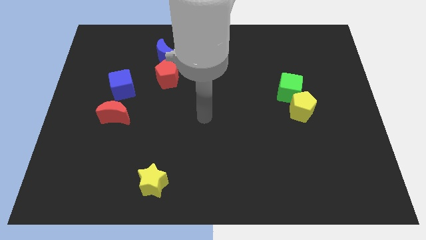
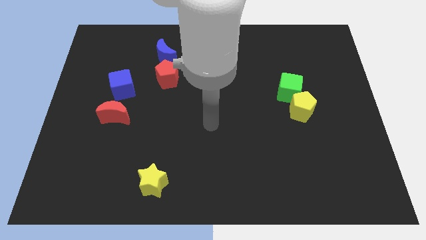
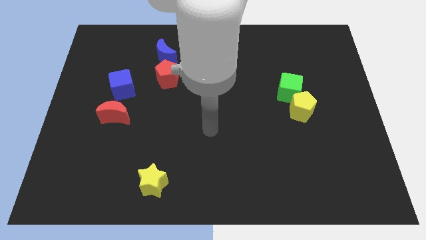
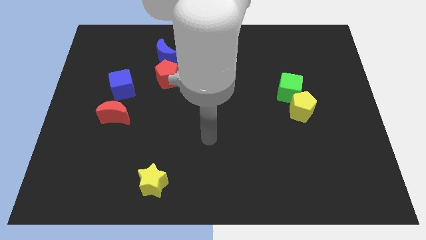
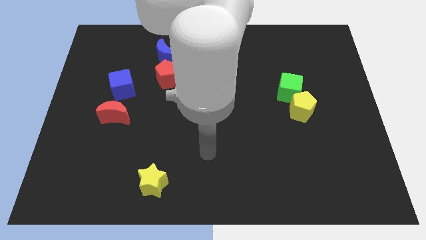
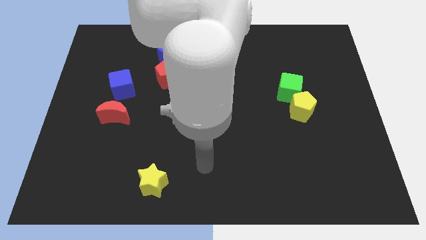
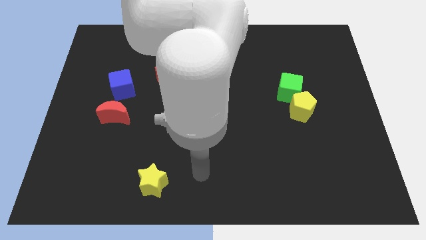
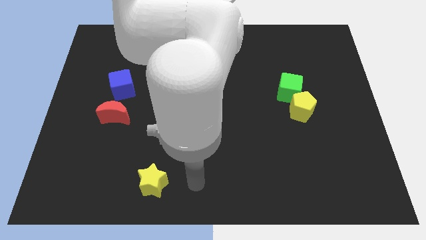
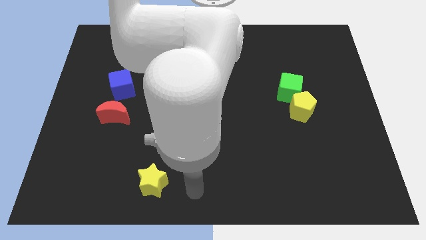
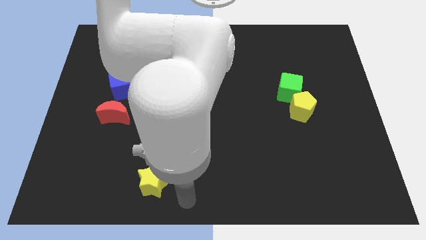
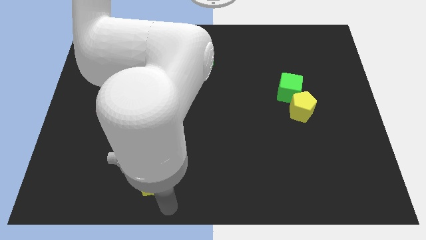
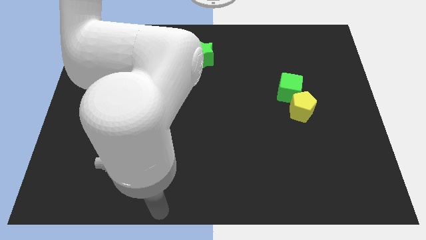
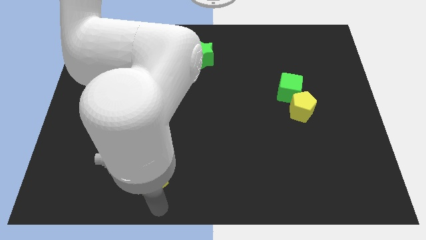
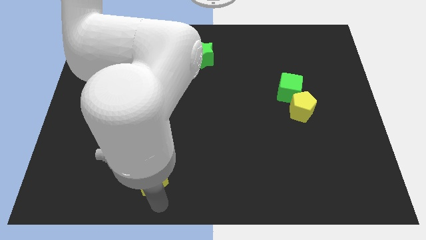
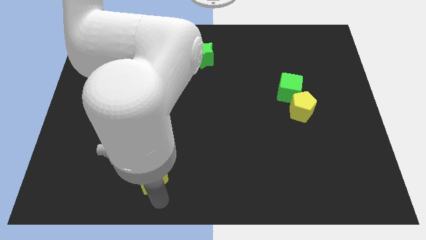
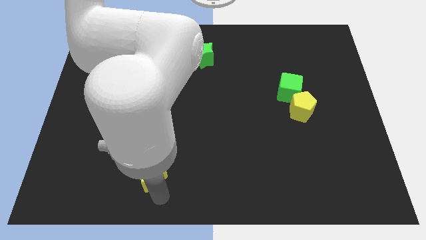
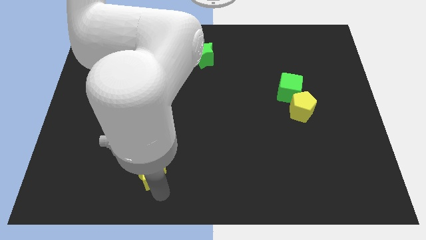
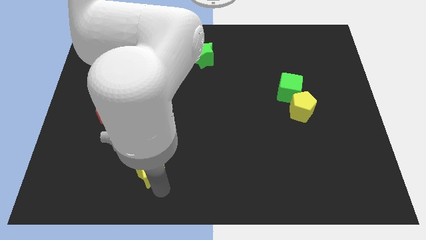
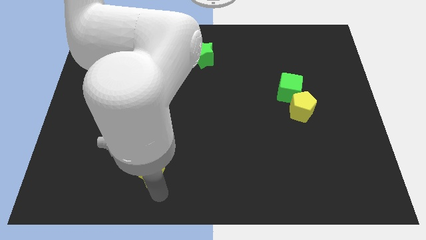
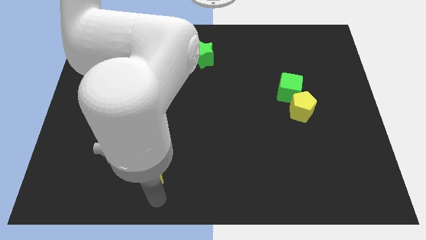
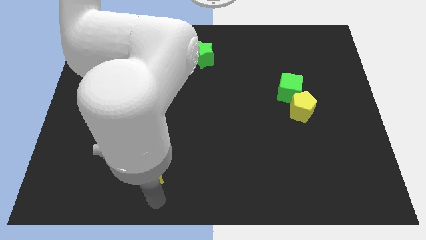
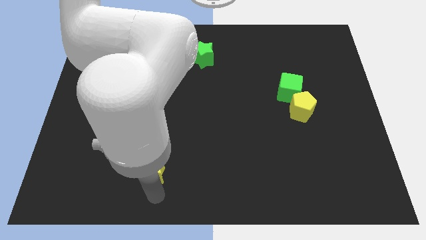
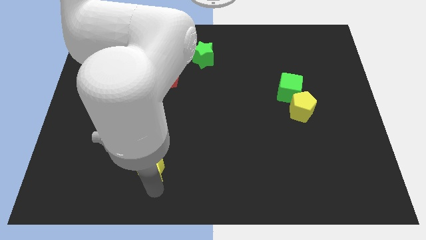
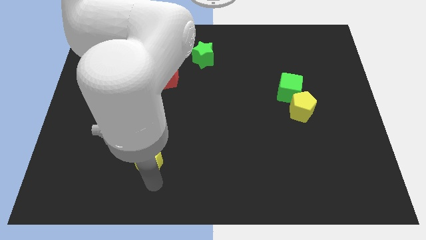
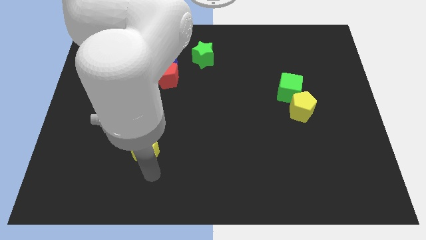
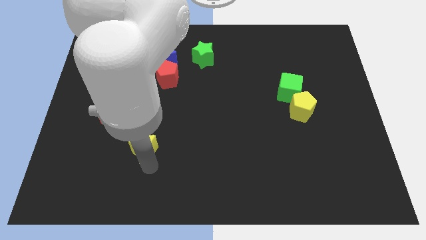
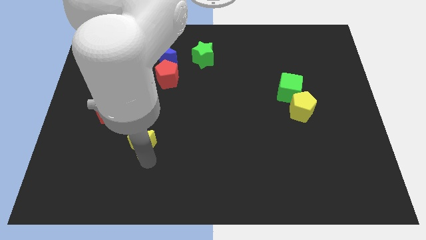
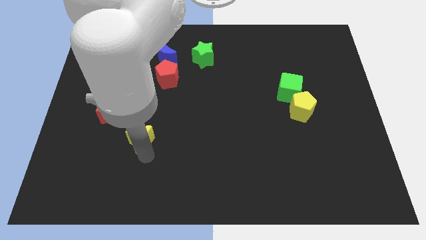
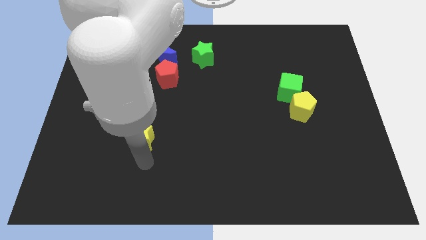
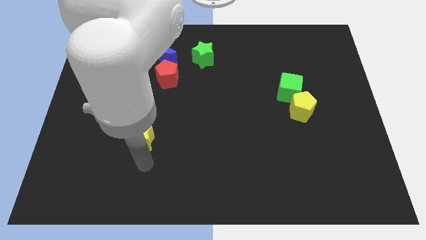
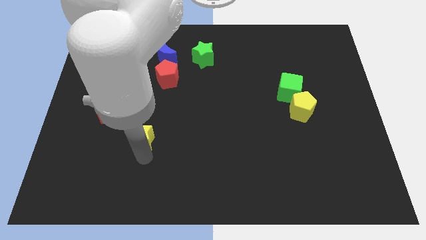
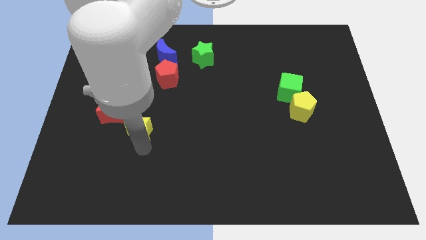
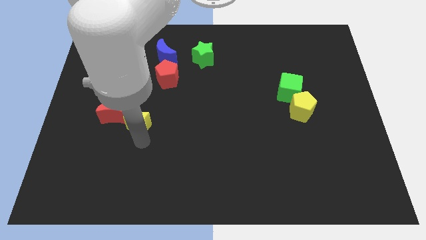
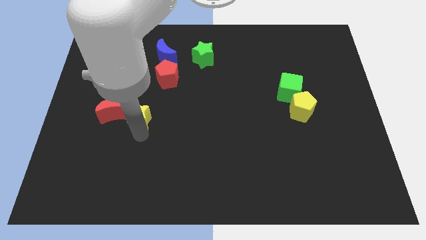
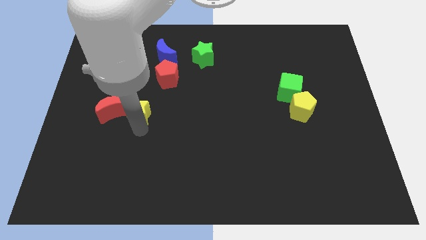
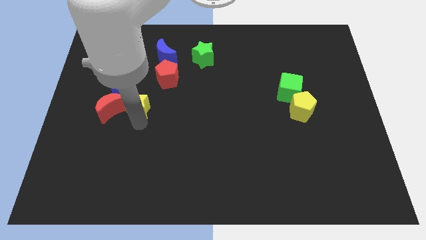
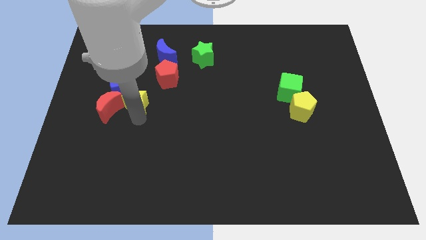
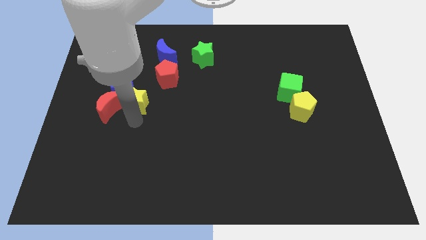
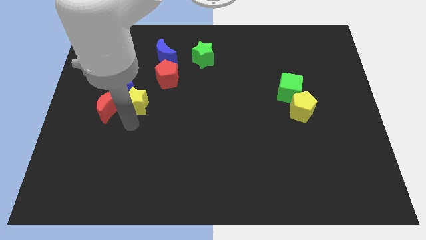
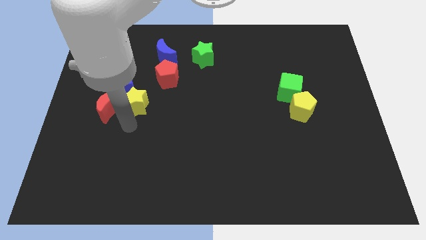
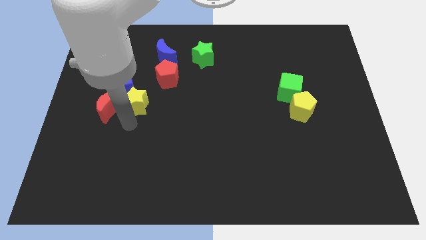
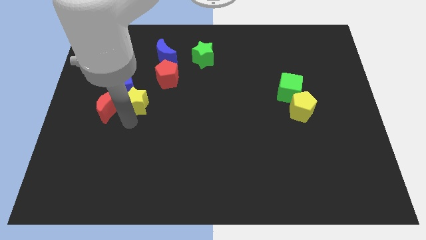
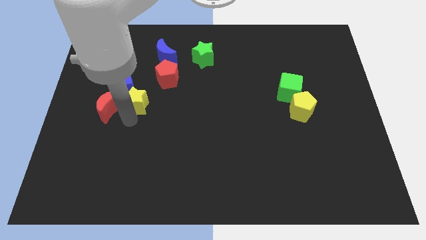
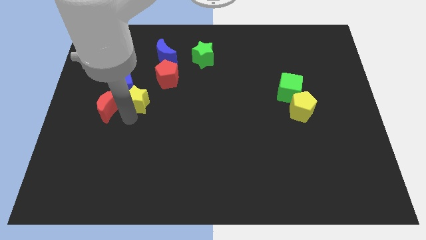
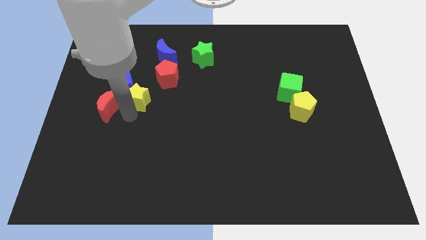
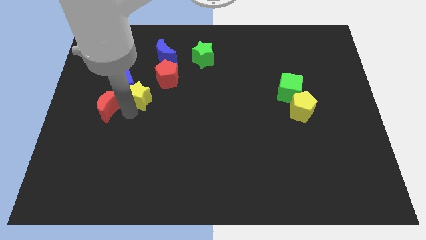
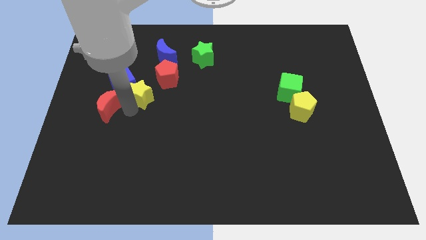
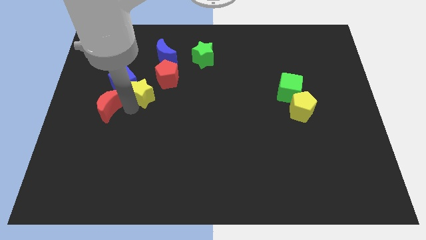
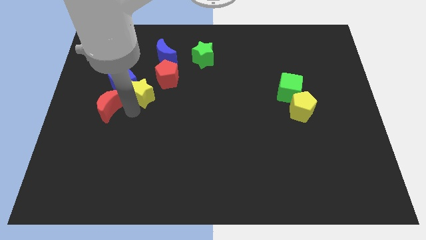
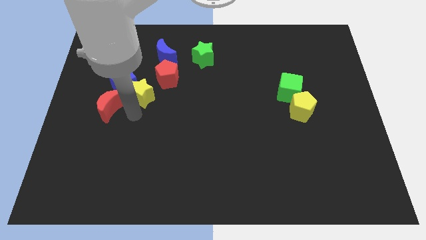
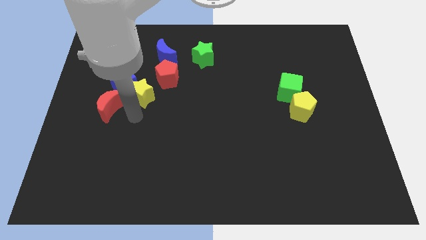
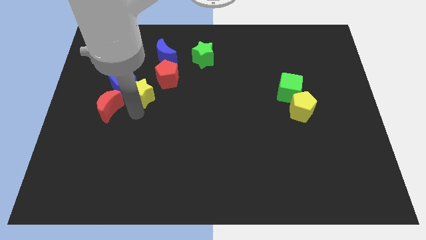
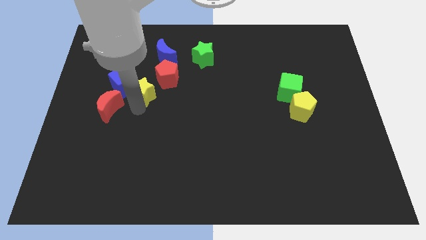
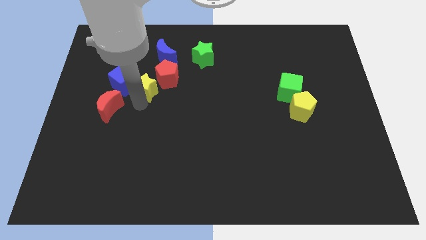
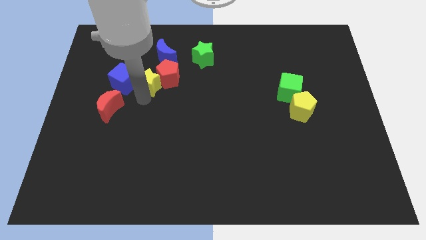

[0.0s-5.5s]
put the yellow star to the bottom left side of the blue moon

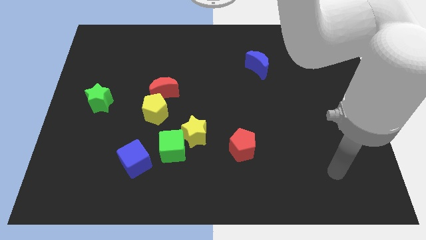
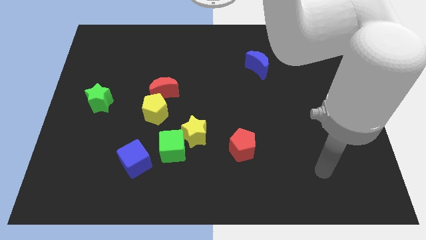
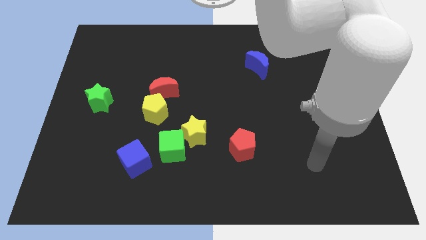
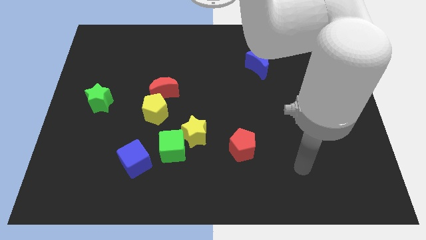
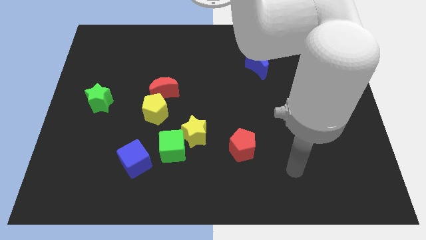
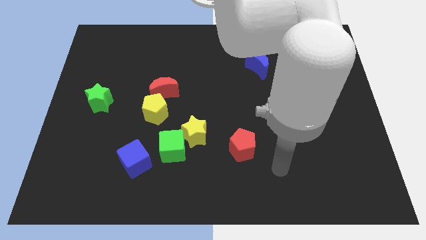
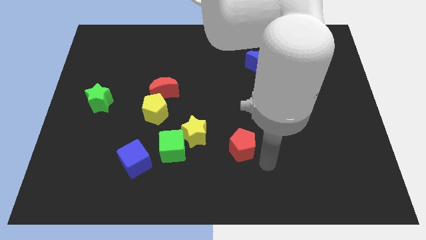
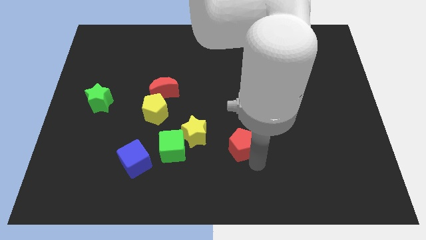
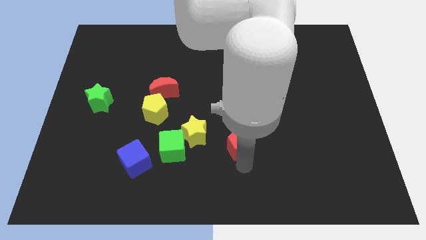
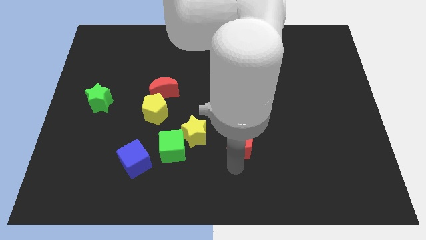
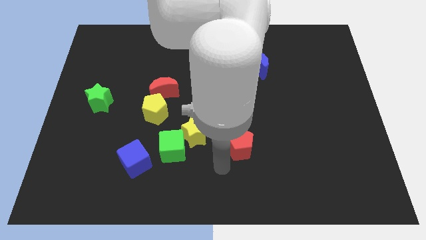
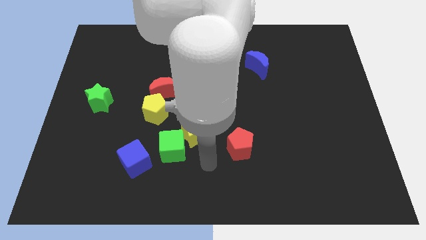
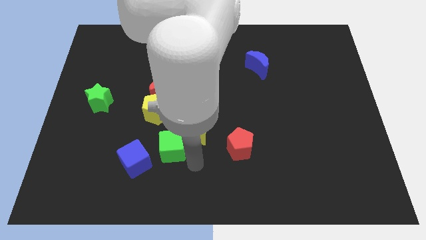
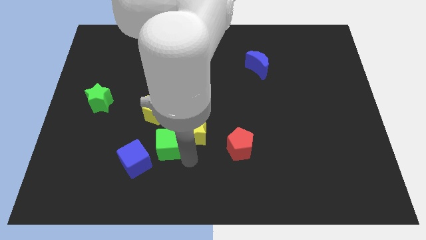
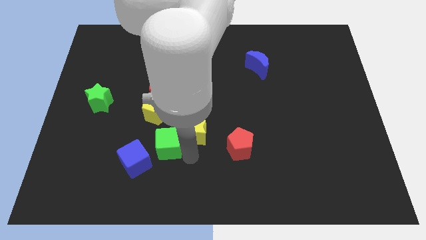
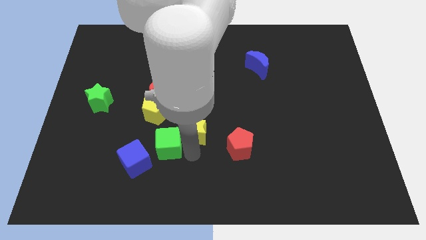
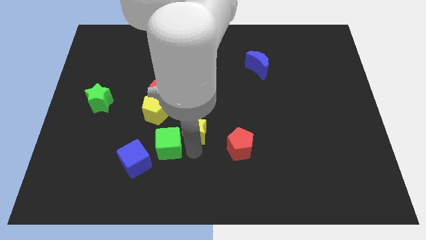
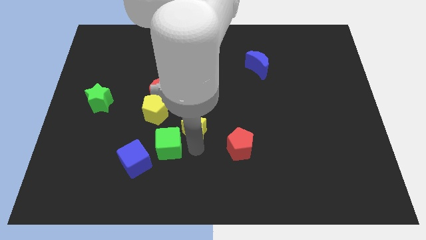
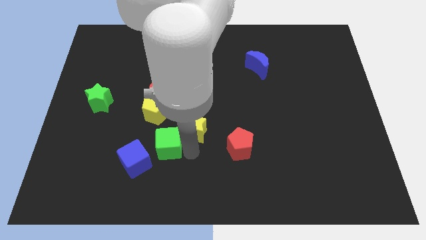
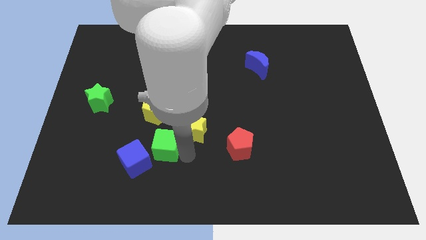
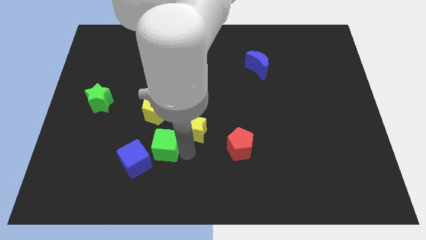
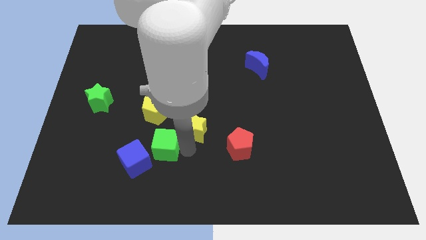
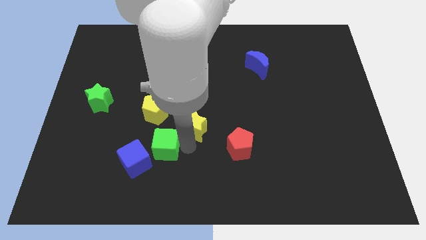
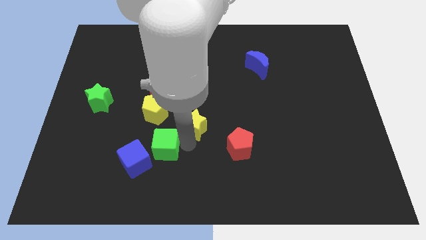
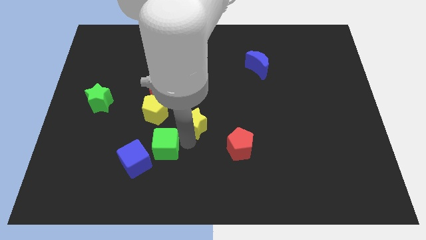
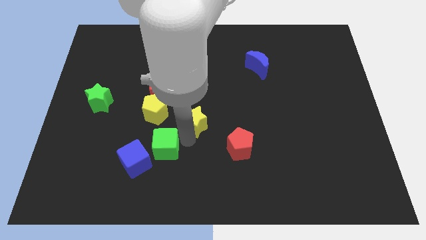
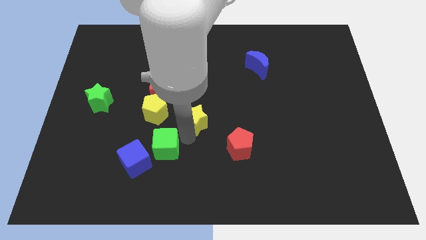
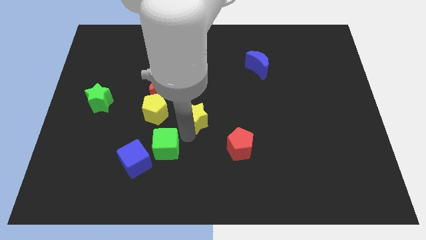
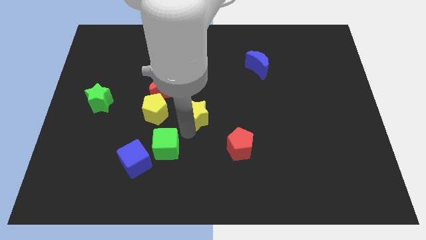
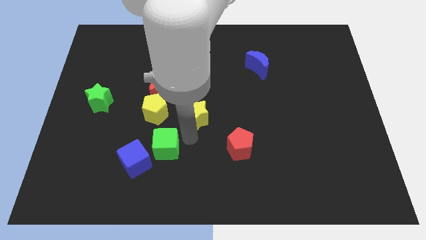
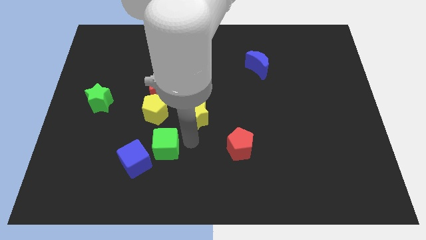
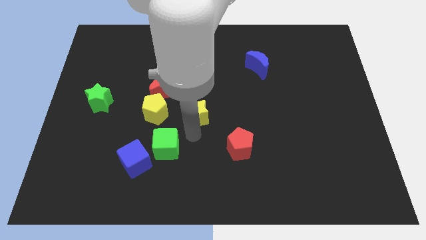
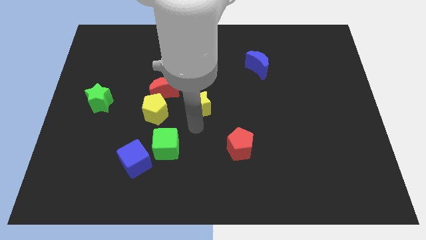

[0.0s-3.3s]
move the yellow star to the right of the red moon
